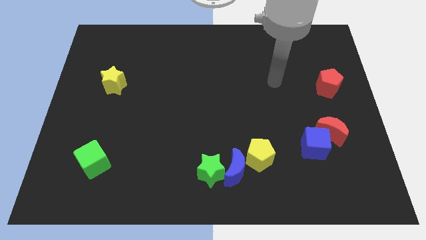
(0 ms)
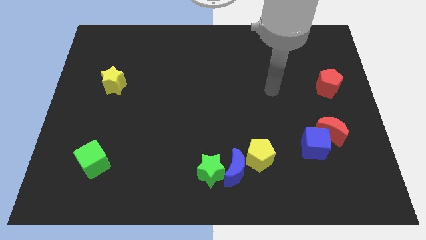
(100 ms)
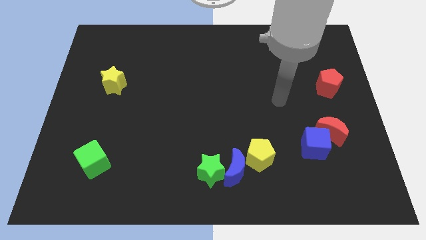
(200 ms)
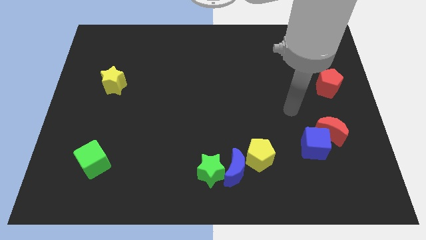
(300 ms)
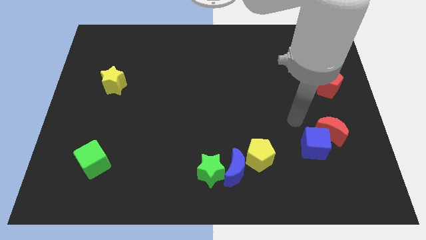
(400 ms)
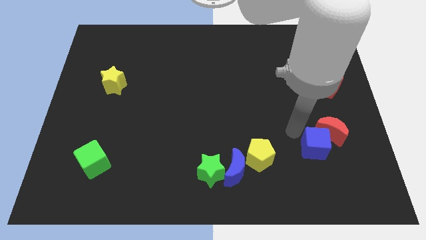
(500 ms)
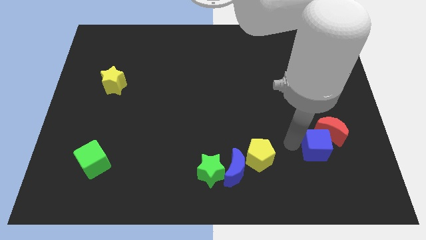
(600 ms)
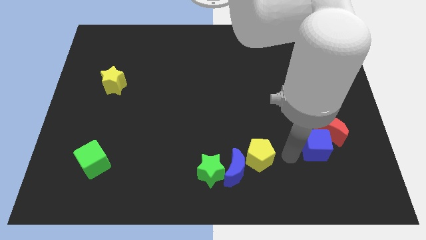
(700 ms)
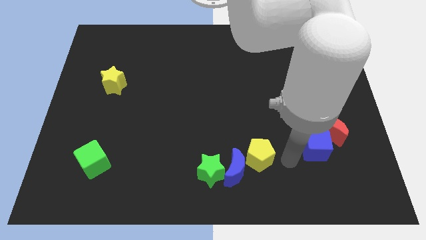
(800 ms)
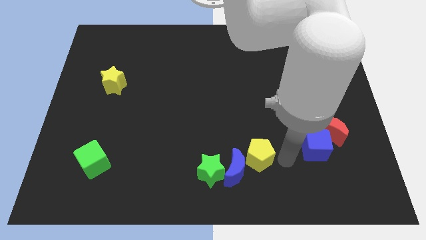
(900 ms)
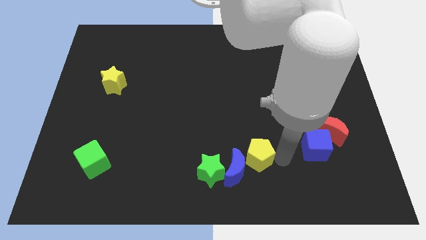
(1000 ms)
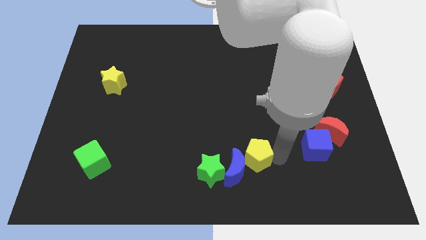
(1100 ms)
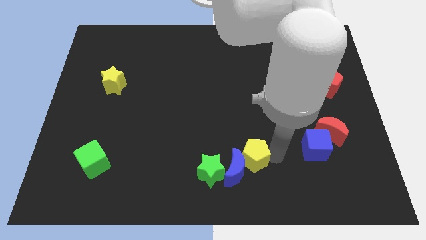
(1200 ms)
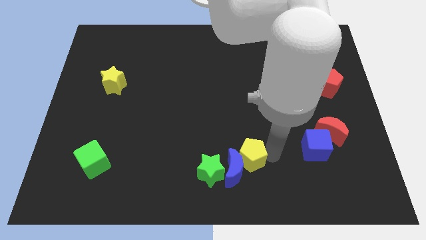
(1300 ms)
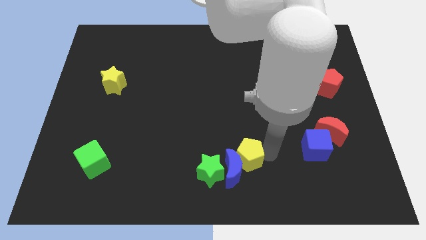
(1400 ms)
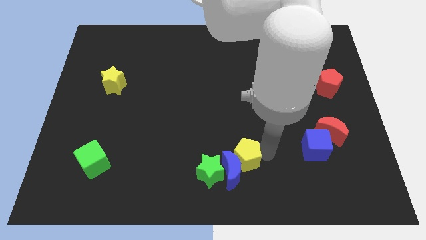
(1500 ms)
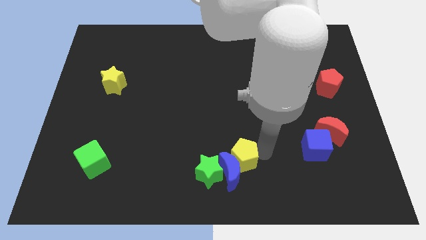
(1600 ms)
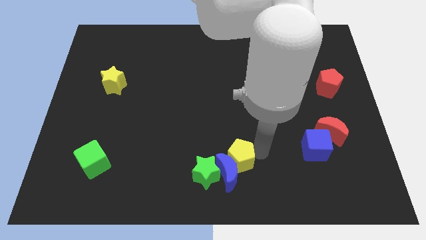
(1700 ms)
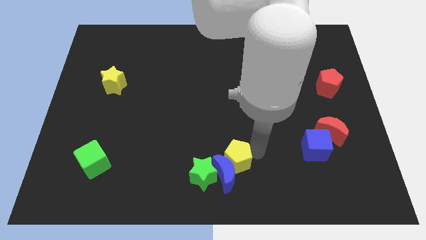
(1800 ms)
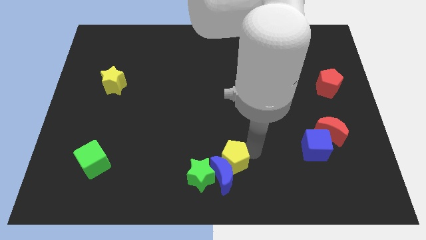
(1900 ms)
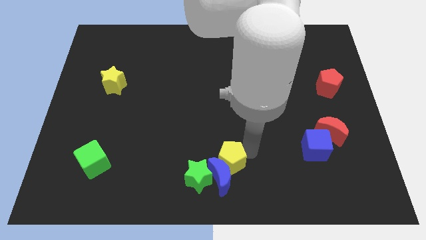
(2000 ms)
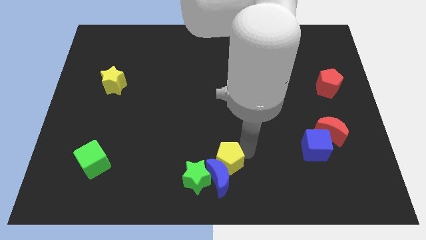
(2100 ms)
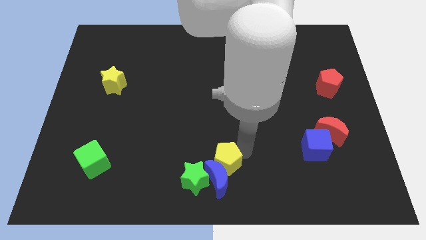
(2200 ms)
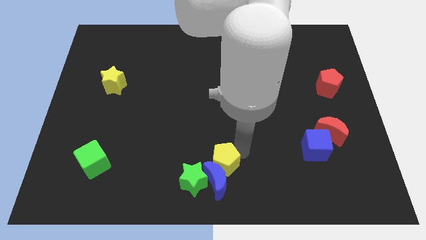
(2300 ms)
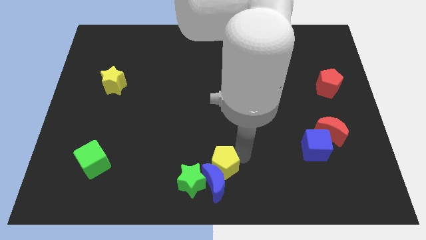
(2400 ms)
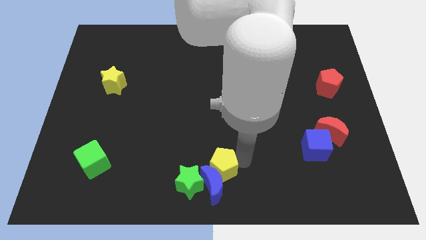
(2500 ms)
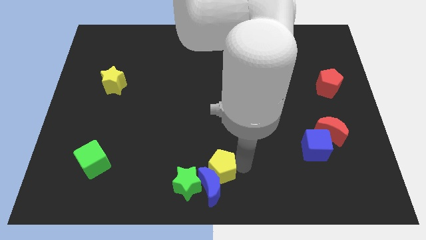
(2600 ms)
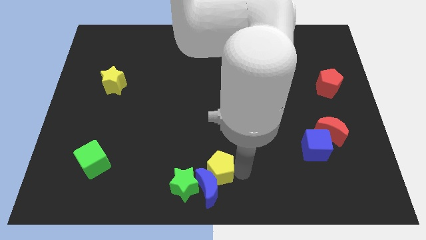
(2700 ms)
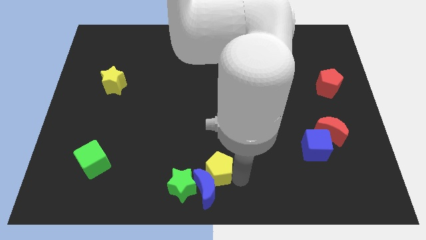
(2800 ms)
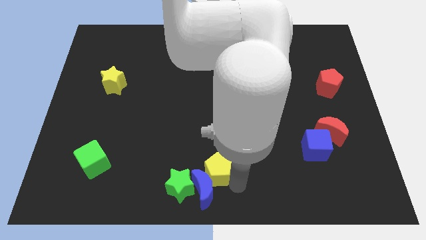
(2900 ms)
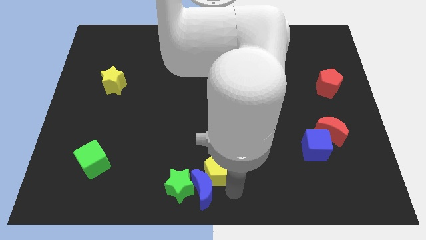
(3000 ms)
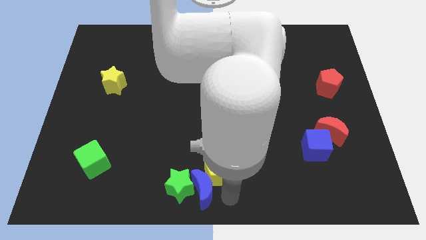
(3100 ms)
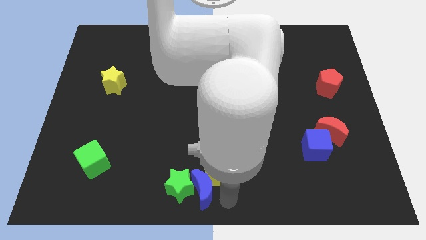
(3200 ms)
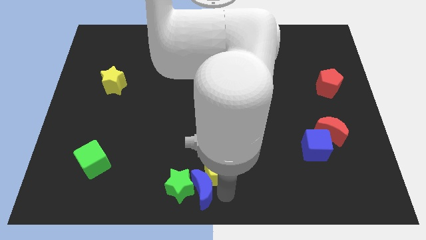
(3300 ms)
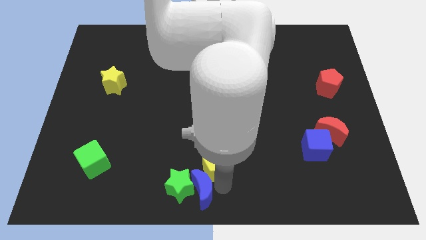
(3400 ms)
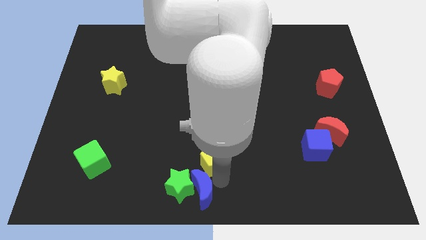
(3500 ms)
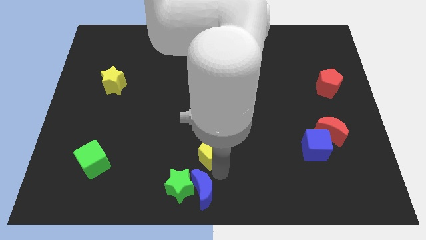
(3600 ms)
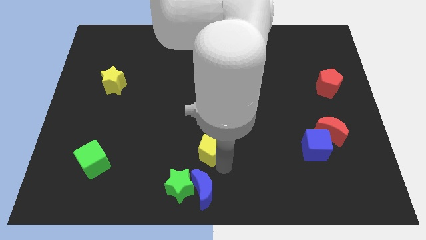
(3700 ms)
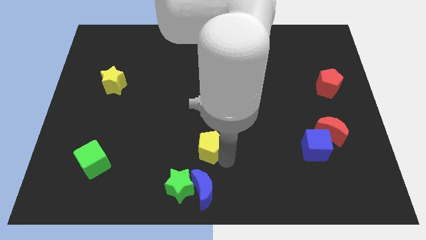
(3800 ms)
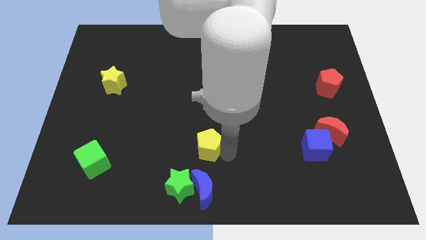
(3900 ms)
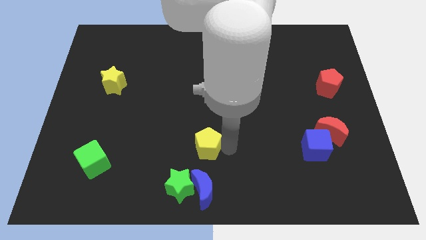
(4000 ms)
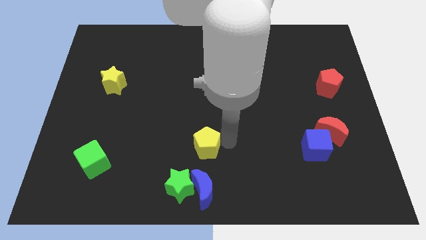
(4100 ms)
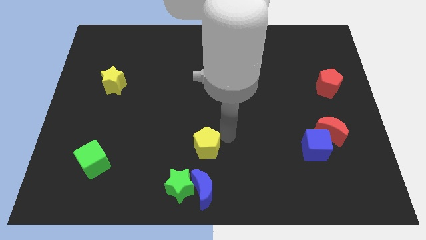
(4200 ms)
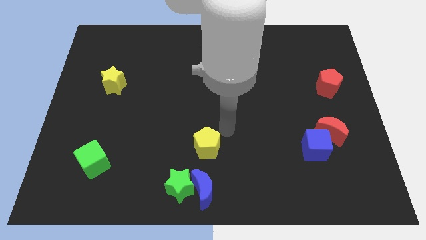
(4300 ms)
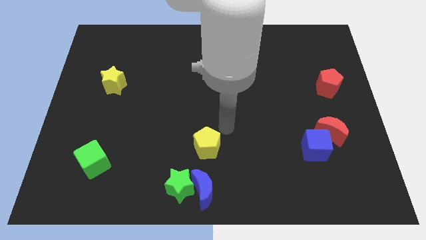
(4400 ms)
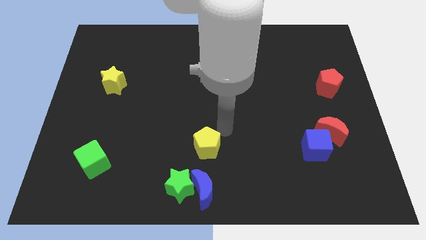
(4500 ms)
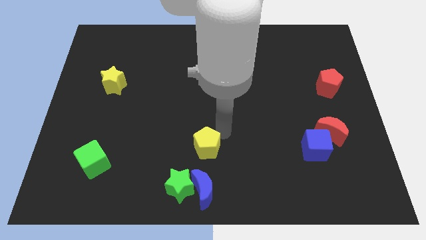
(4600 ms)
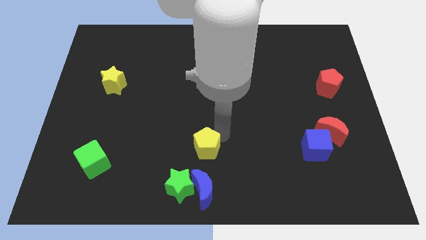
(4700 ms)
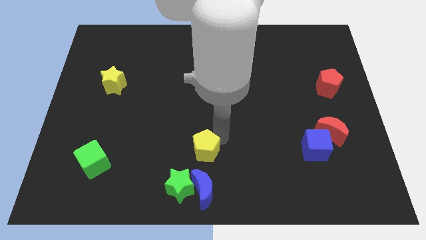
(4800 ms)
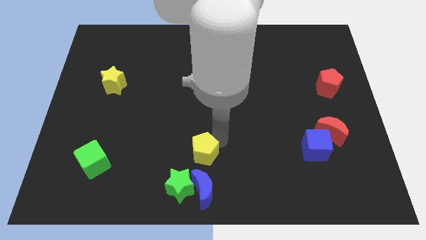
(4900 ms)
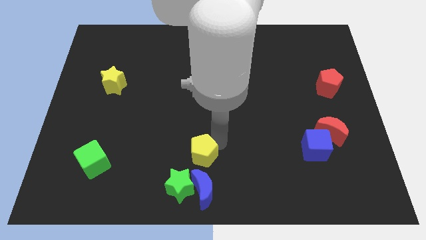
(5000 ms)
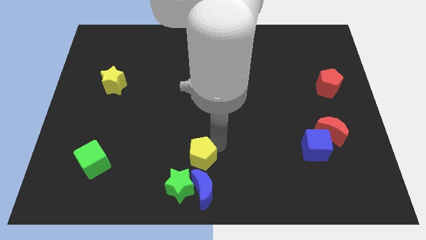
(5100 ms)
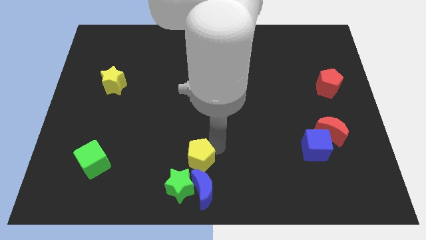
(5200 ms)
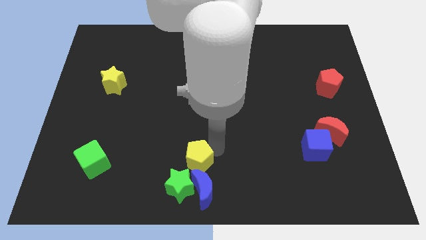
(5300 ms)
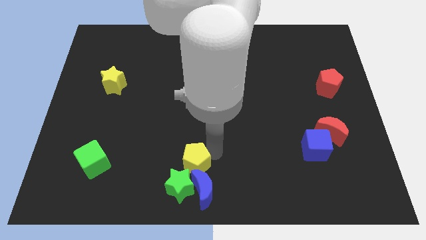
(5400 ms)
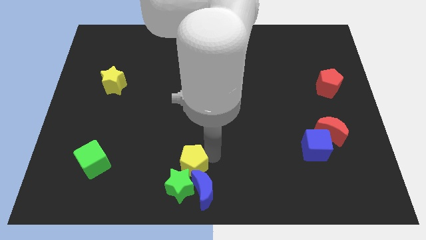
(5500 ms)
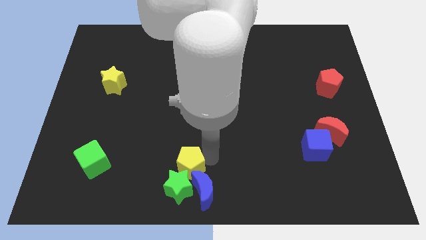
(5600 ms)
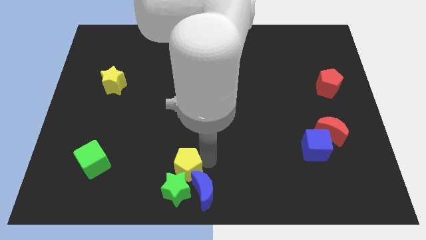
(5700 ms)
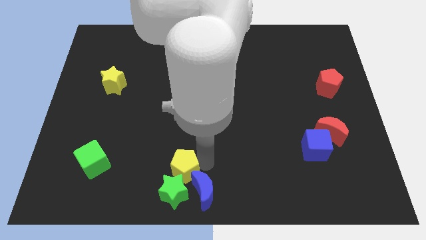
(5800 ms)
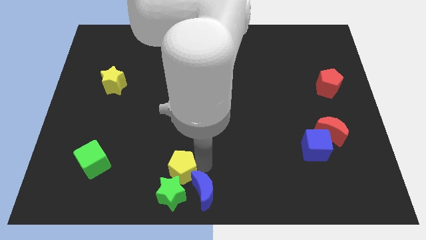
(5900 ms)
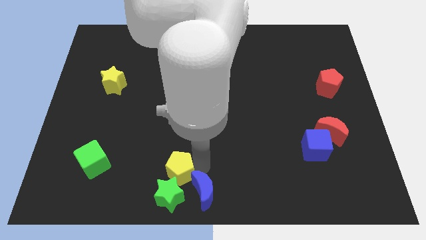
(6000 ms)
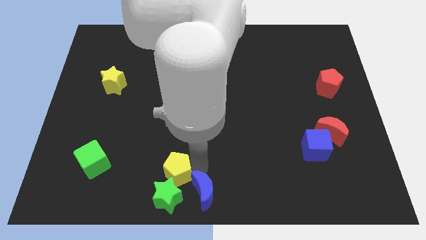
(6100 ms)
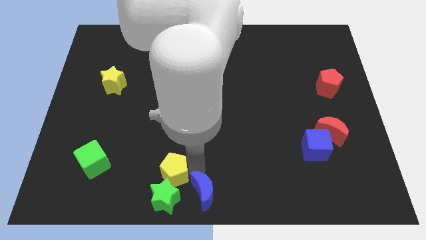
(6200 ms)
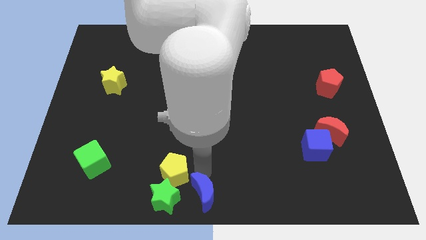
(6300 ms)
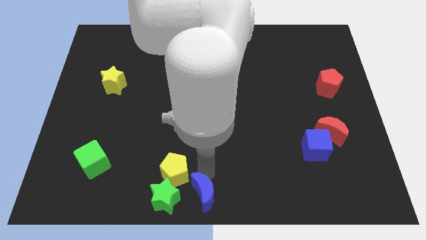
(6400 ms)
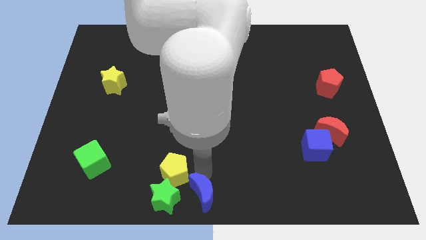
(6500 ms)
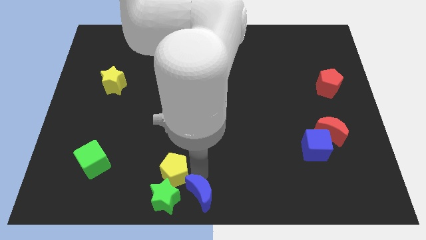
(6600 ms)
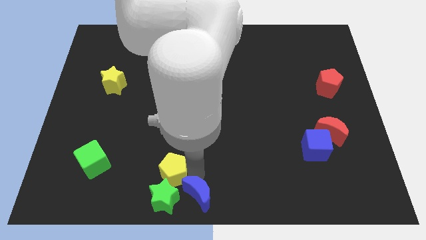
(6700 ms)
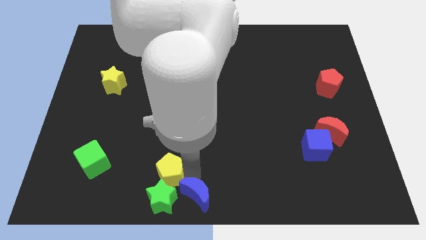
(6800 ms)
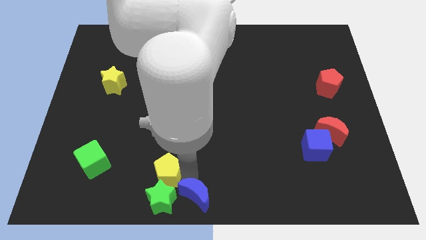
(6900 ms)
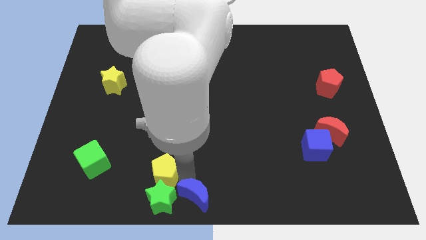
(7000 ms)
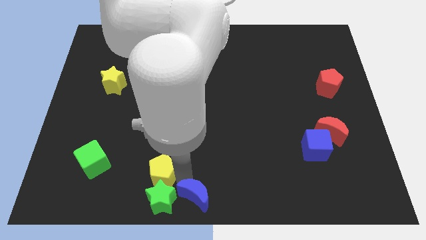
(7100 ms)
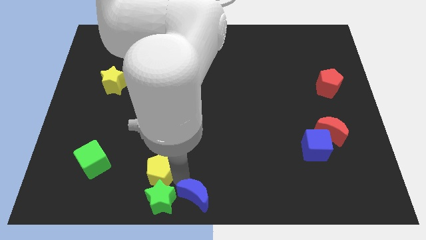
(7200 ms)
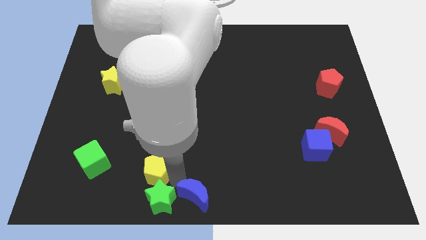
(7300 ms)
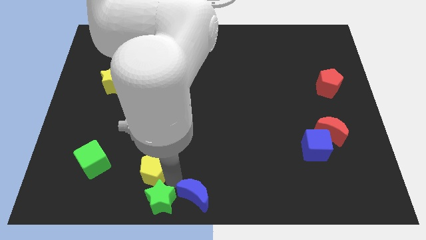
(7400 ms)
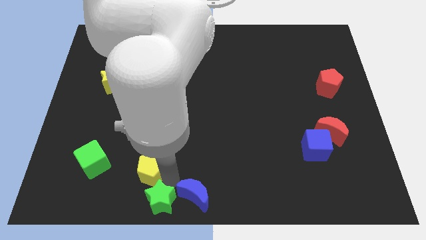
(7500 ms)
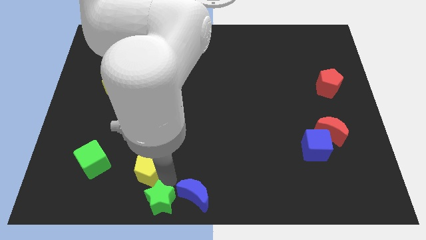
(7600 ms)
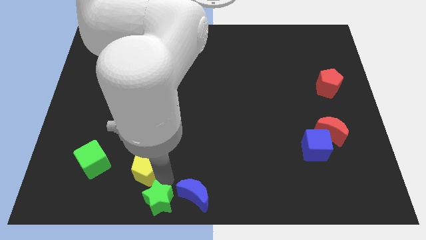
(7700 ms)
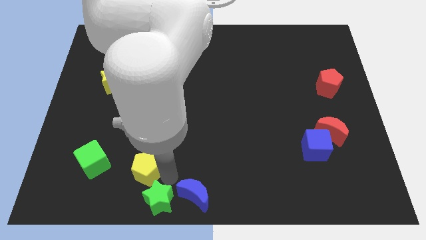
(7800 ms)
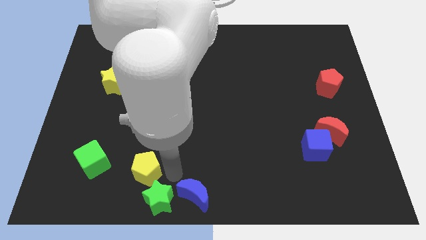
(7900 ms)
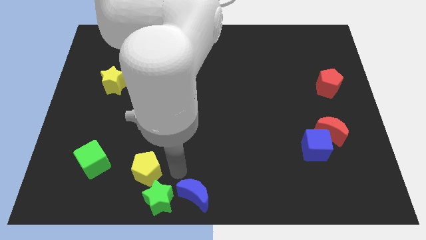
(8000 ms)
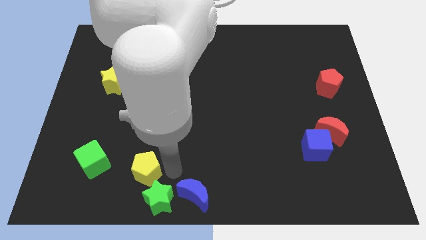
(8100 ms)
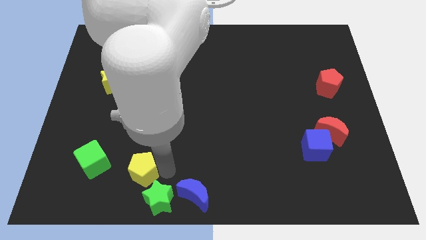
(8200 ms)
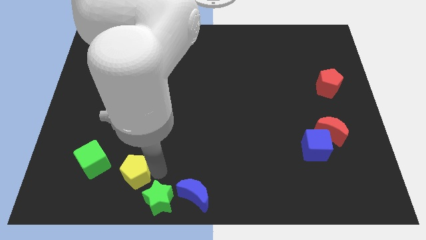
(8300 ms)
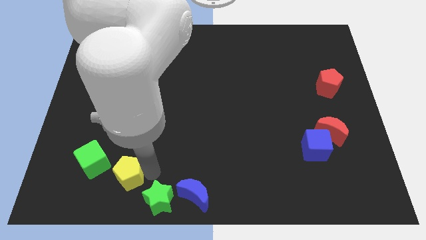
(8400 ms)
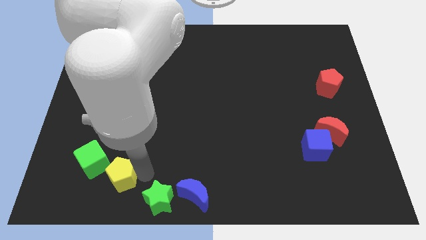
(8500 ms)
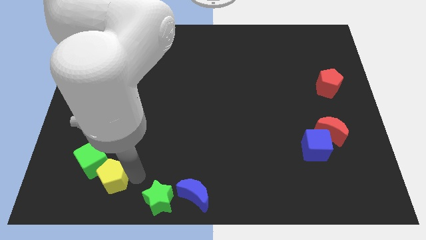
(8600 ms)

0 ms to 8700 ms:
put the yellow pentagon close to the green cube
